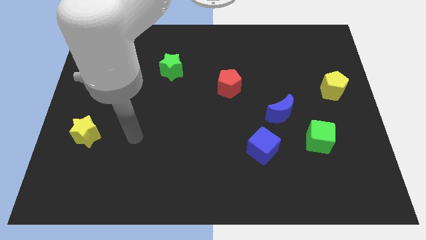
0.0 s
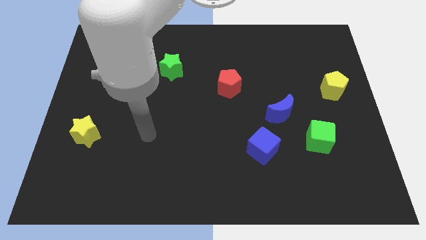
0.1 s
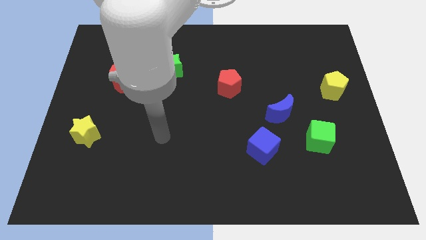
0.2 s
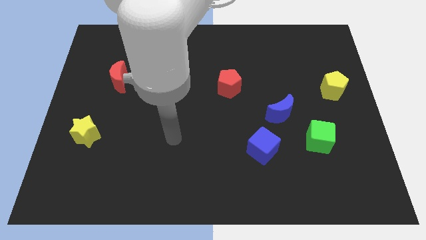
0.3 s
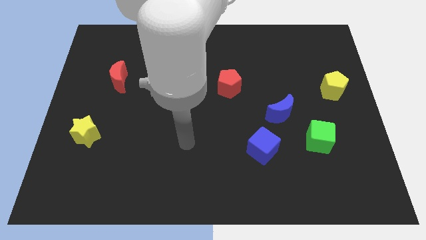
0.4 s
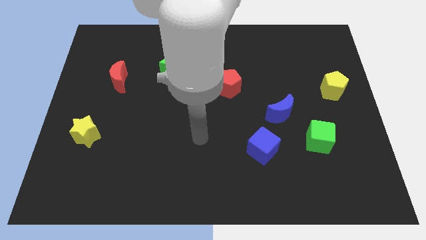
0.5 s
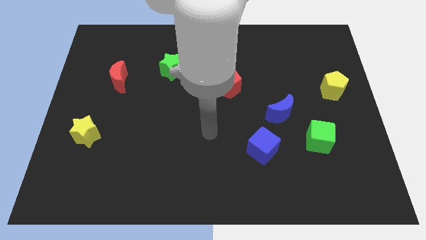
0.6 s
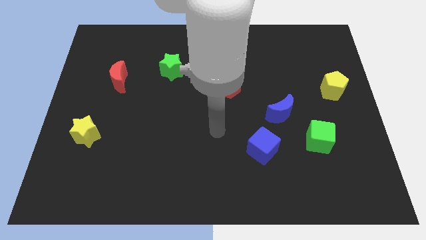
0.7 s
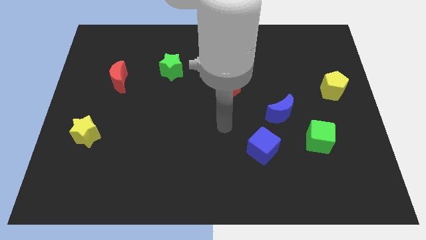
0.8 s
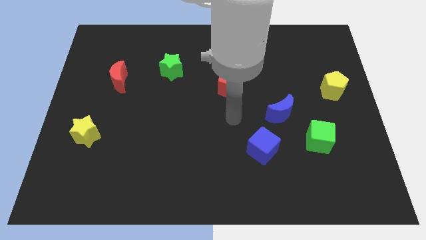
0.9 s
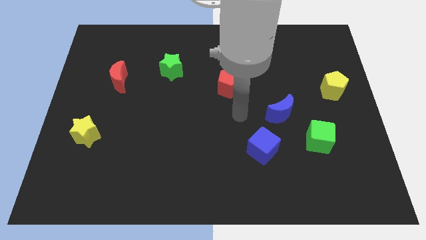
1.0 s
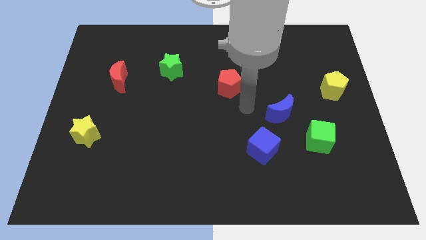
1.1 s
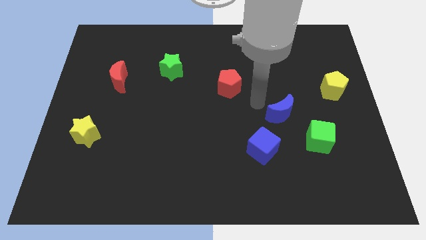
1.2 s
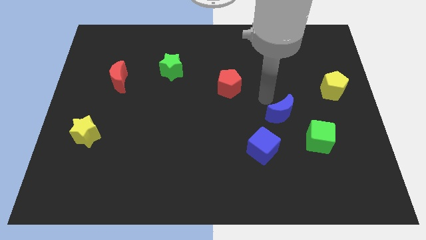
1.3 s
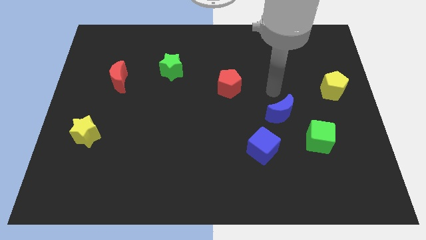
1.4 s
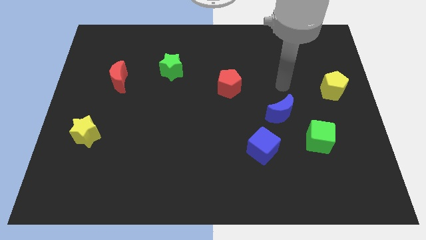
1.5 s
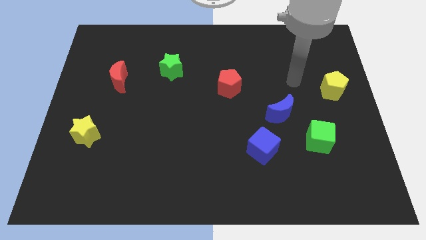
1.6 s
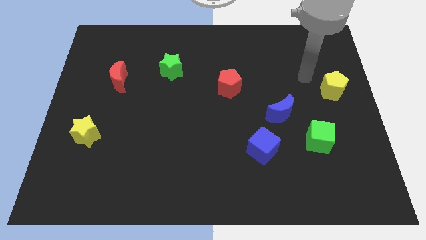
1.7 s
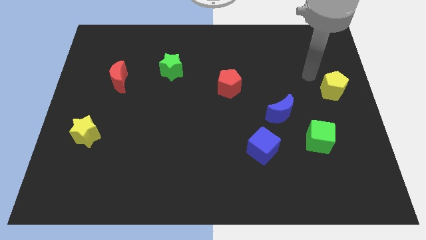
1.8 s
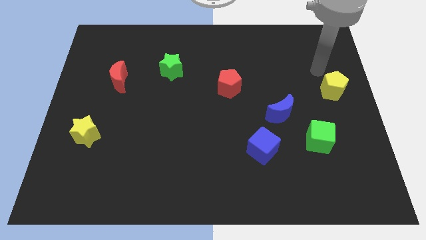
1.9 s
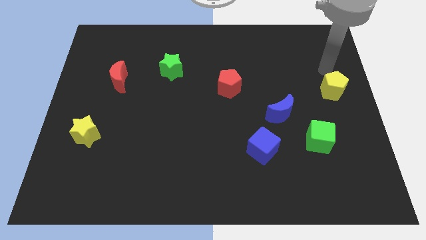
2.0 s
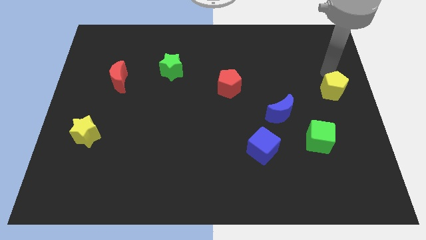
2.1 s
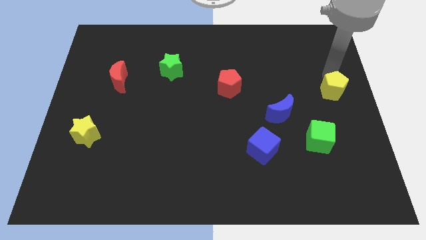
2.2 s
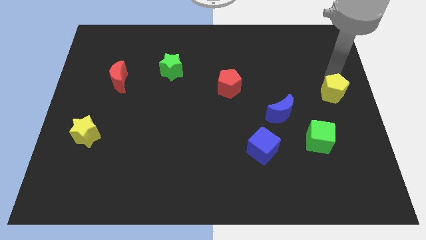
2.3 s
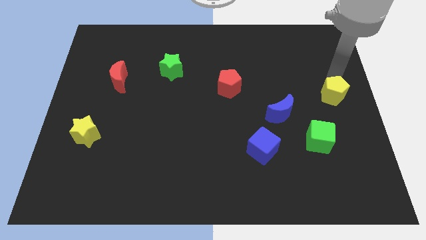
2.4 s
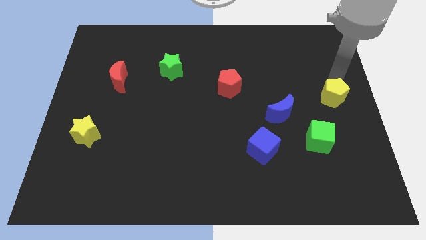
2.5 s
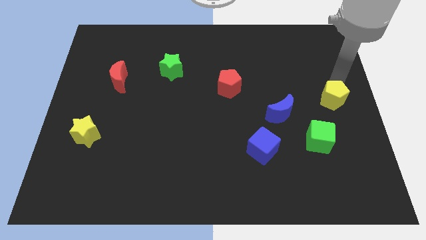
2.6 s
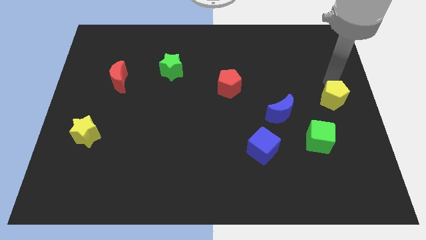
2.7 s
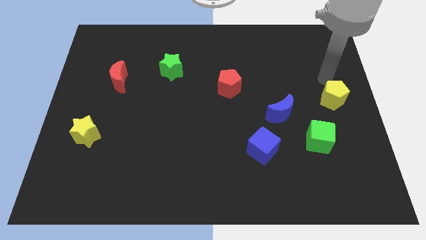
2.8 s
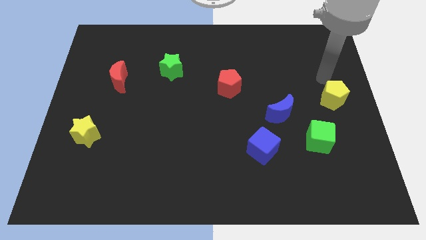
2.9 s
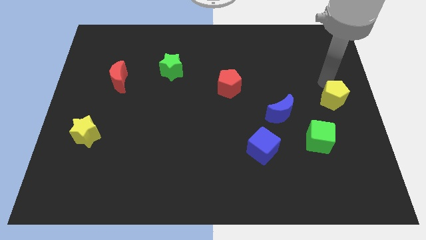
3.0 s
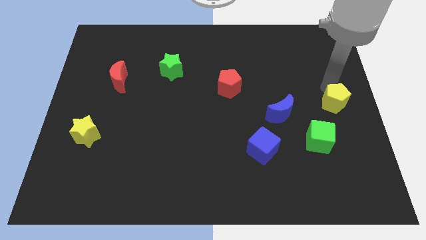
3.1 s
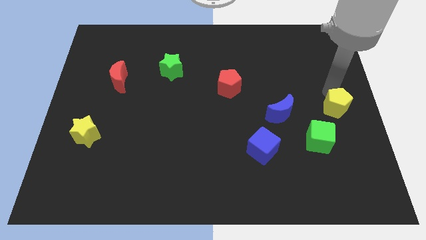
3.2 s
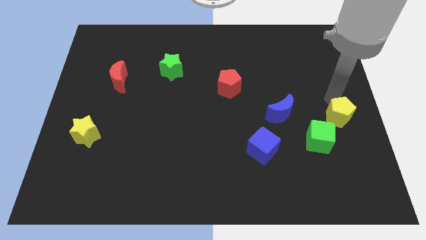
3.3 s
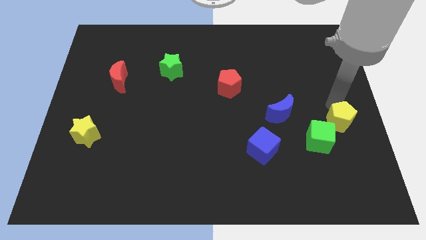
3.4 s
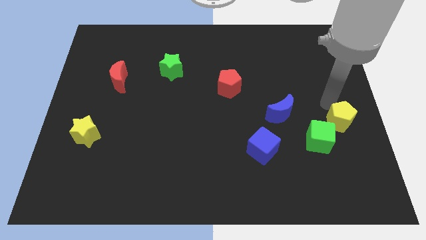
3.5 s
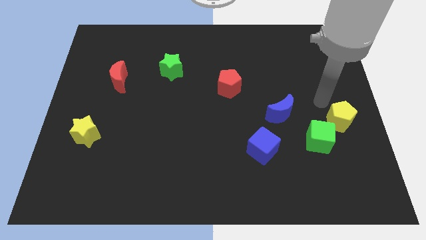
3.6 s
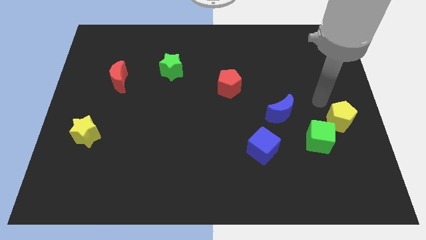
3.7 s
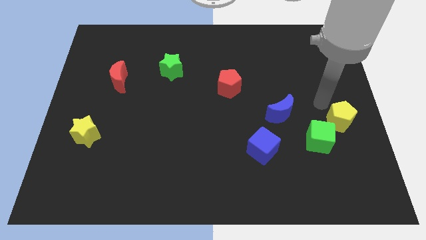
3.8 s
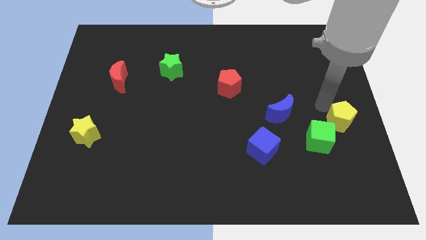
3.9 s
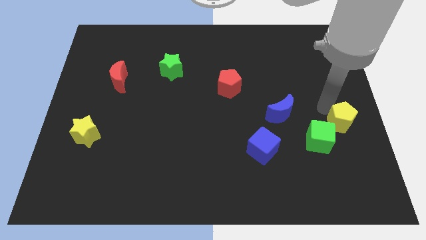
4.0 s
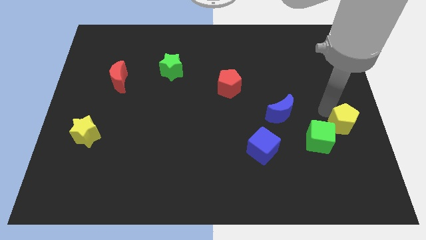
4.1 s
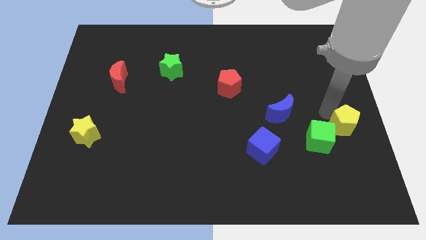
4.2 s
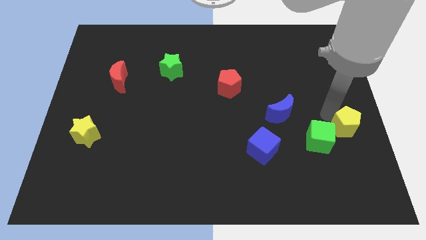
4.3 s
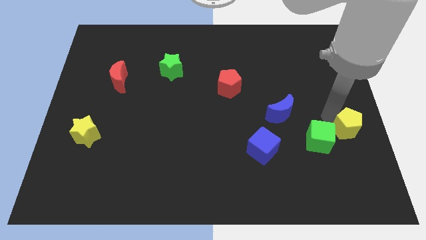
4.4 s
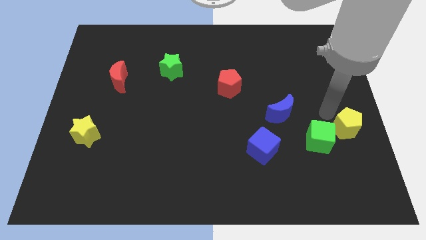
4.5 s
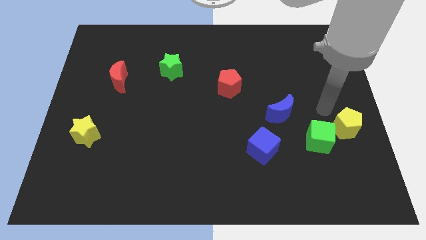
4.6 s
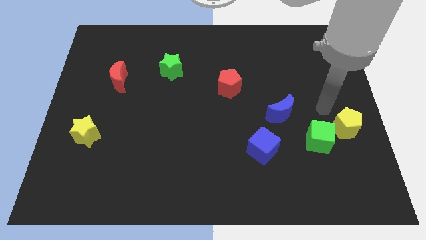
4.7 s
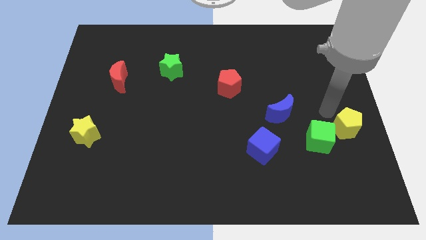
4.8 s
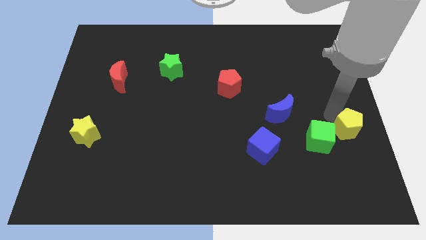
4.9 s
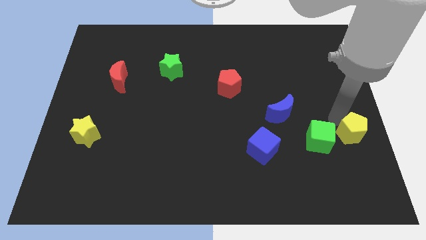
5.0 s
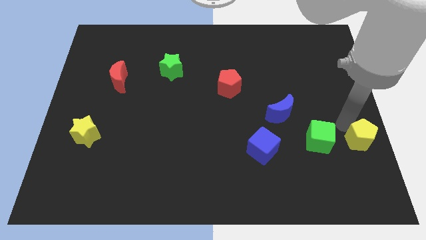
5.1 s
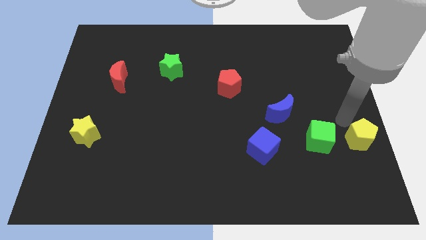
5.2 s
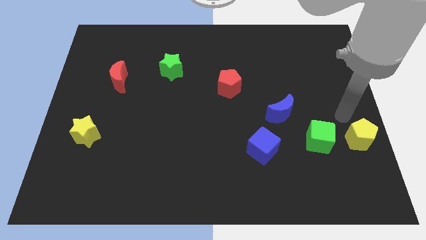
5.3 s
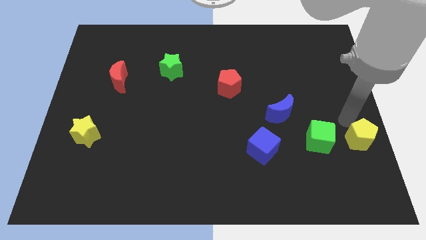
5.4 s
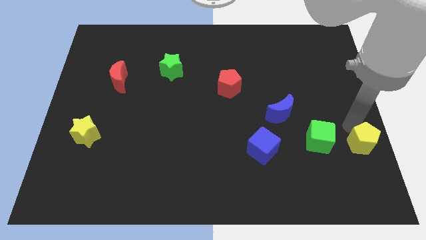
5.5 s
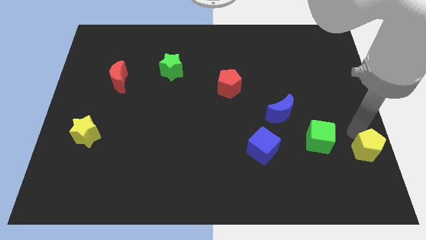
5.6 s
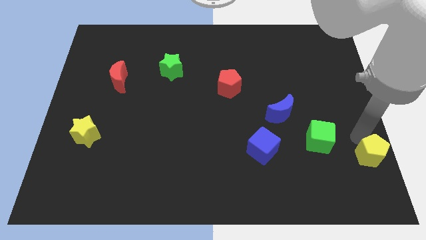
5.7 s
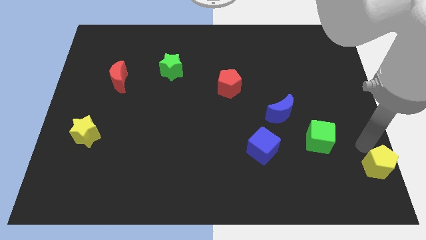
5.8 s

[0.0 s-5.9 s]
push the yellow pentagon to the bottom right corner

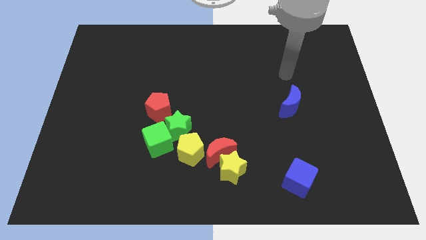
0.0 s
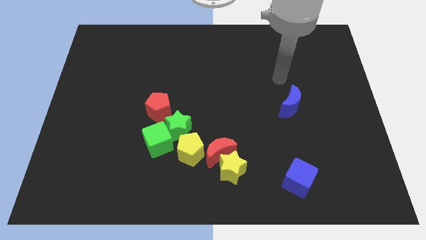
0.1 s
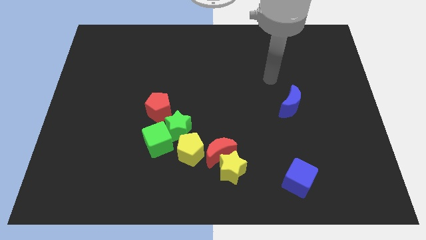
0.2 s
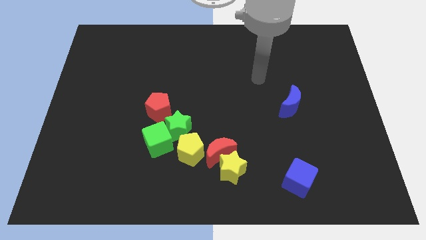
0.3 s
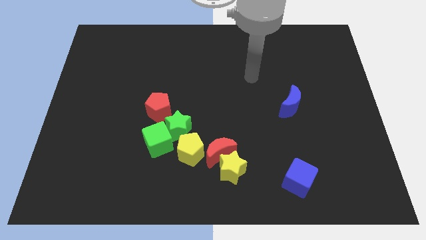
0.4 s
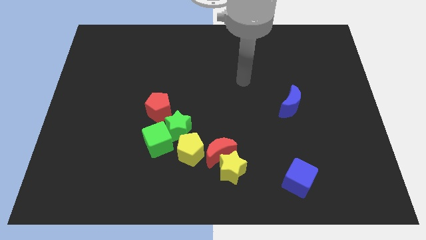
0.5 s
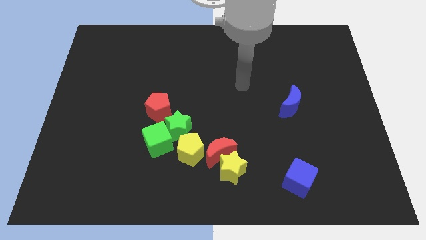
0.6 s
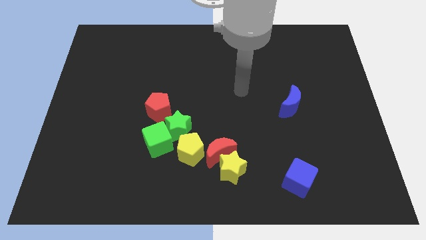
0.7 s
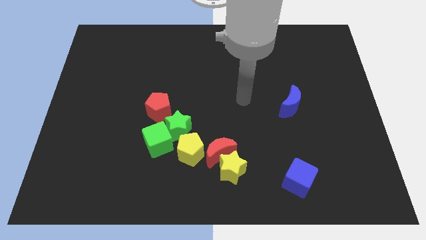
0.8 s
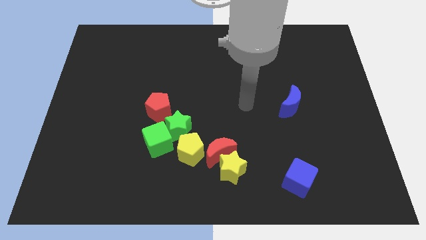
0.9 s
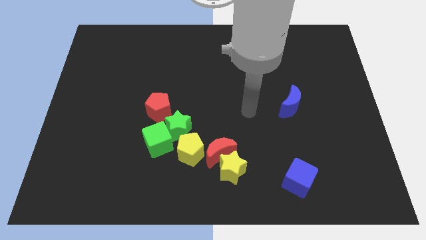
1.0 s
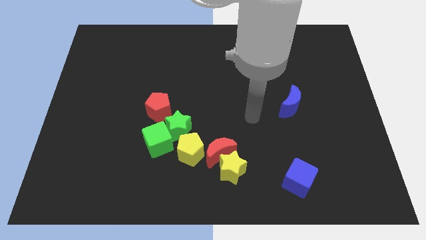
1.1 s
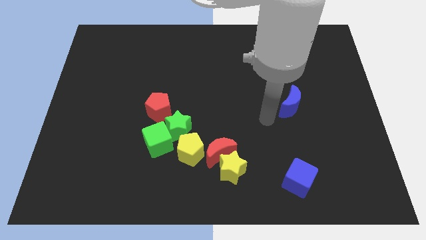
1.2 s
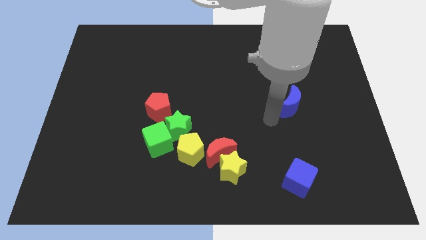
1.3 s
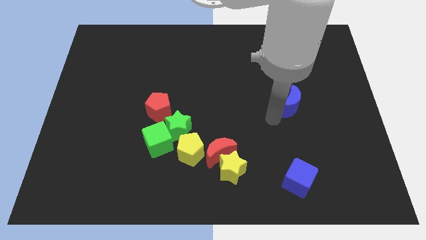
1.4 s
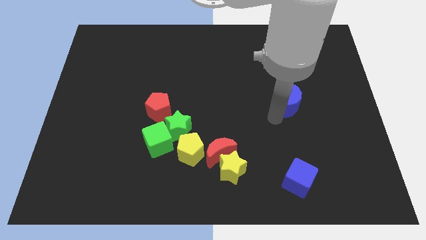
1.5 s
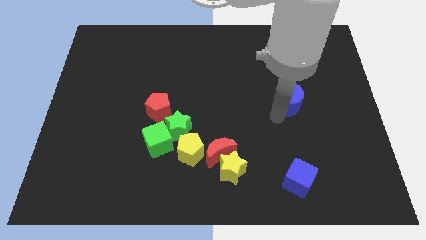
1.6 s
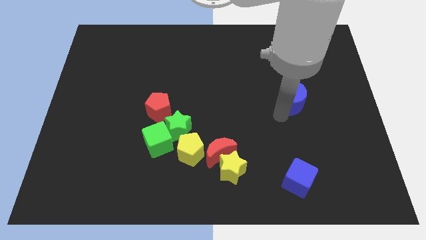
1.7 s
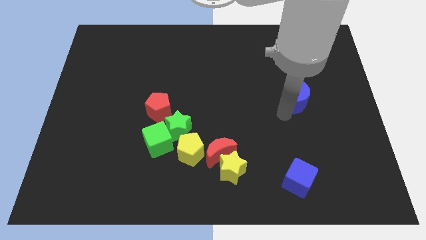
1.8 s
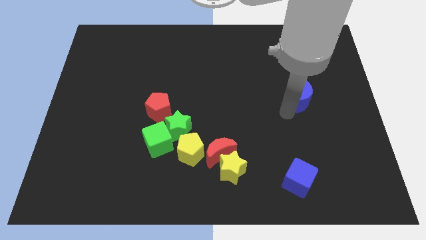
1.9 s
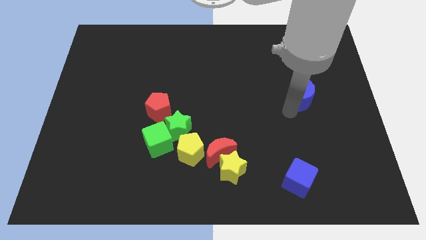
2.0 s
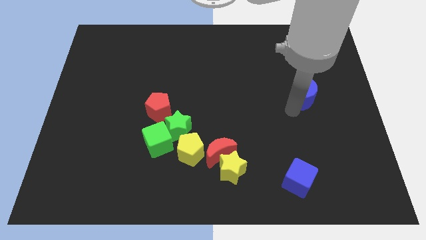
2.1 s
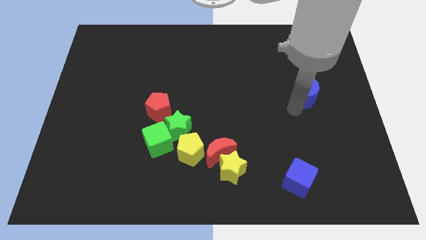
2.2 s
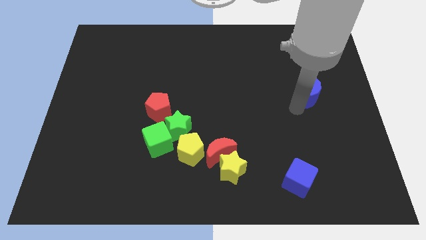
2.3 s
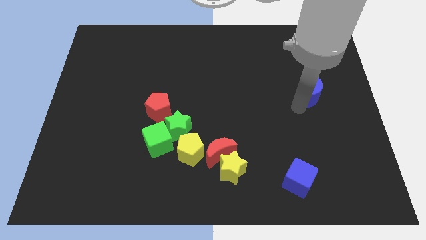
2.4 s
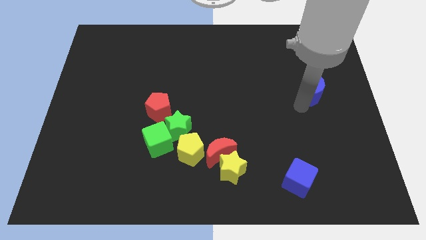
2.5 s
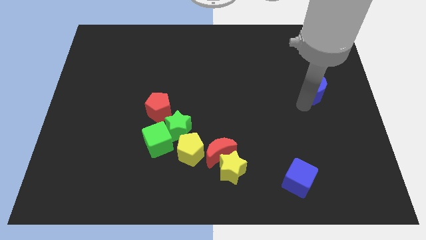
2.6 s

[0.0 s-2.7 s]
put the blue moon to the center right
